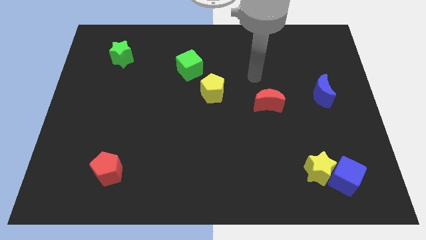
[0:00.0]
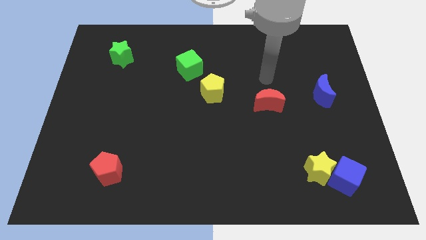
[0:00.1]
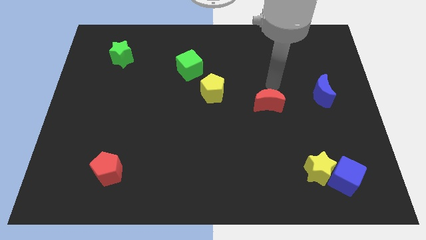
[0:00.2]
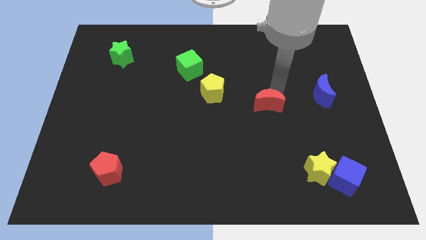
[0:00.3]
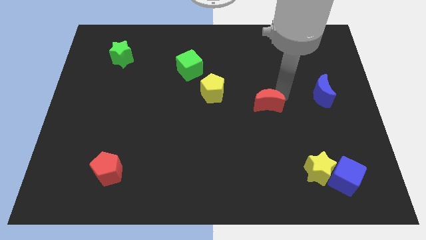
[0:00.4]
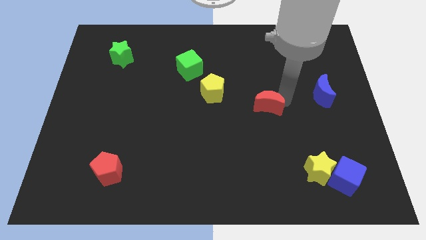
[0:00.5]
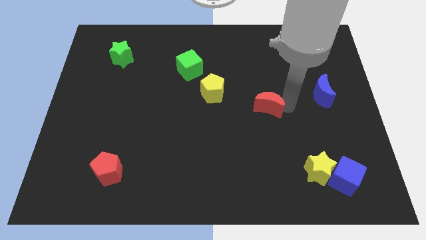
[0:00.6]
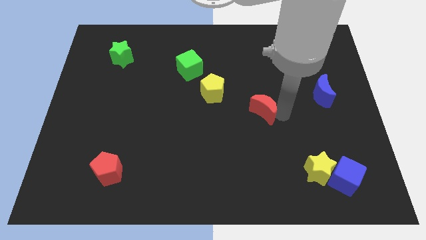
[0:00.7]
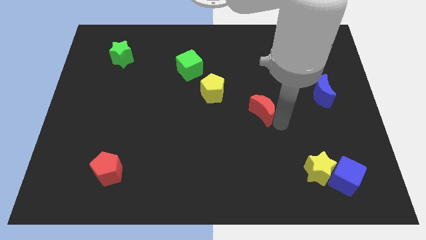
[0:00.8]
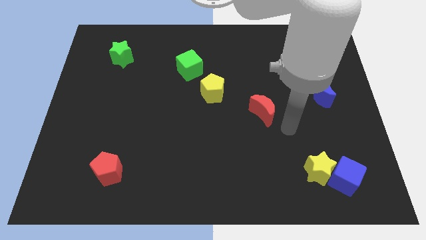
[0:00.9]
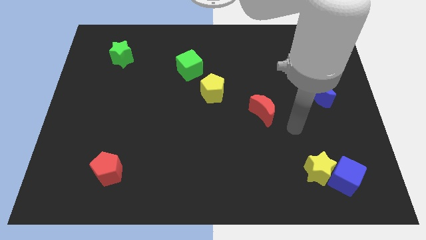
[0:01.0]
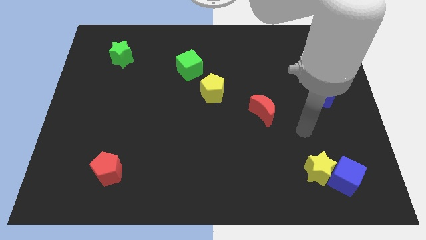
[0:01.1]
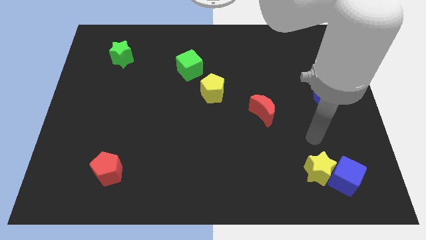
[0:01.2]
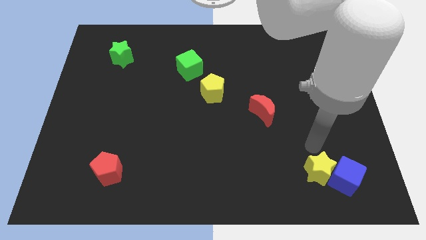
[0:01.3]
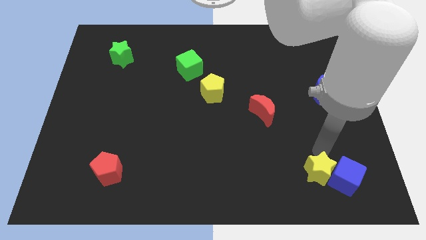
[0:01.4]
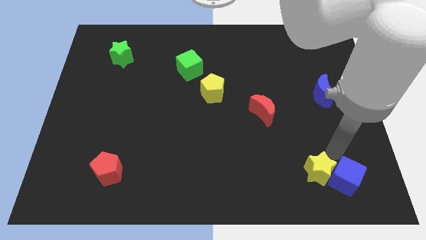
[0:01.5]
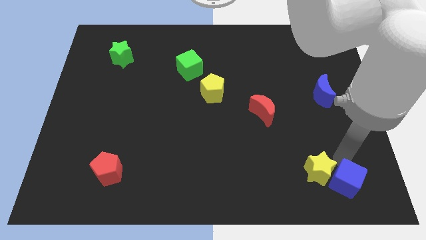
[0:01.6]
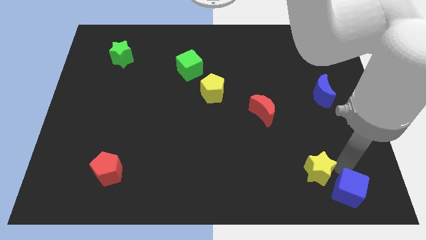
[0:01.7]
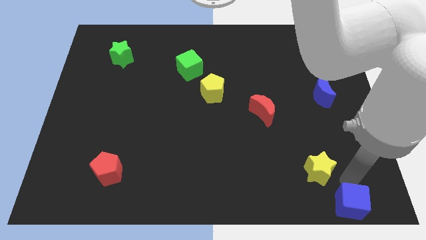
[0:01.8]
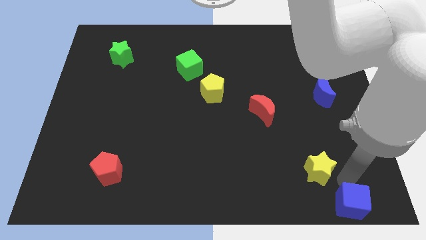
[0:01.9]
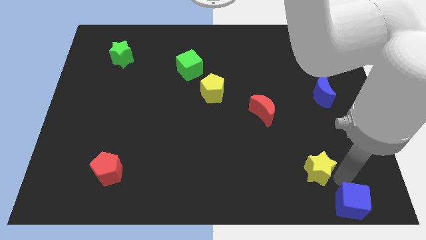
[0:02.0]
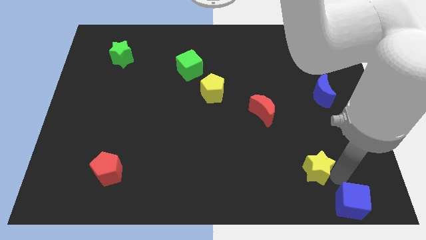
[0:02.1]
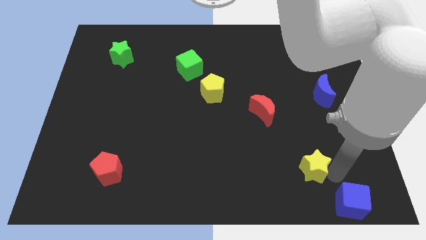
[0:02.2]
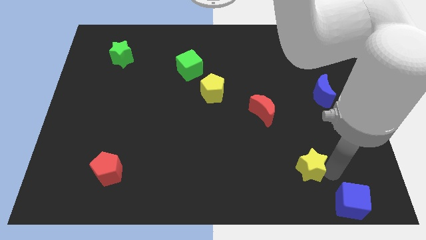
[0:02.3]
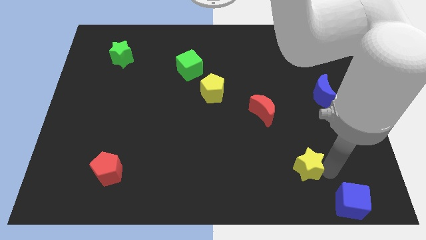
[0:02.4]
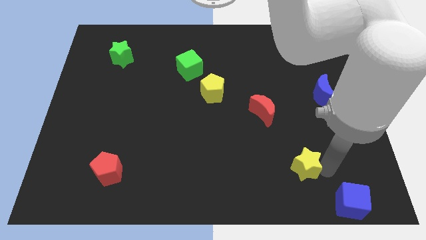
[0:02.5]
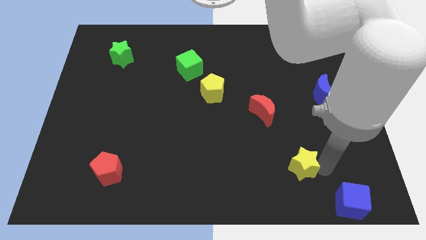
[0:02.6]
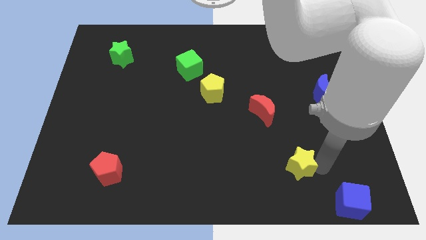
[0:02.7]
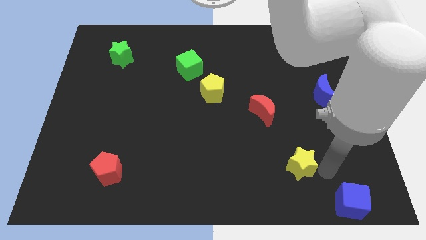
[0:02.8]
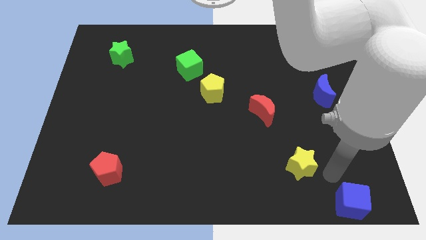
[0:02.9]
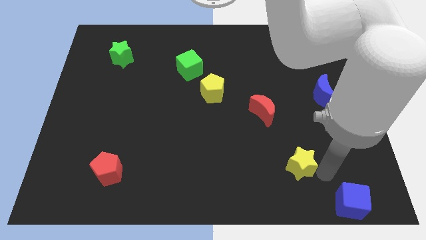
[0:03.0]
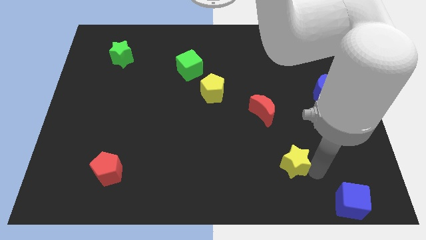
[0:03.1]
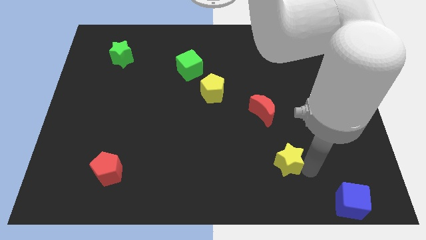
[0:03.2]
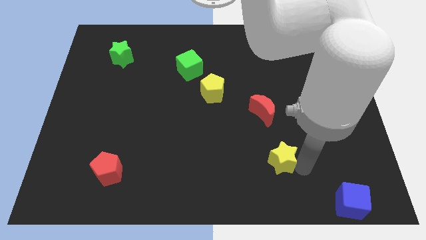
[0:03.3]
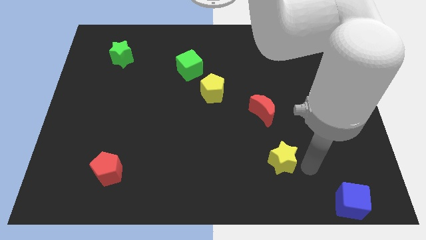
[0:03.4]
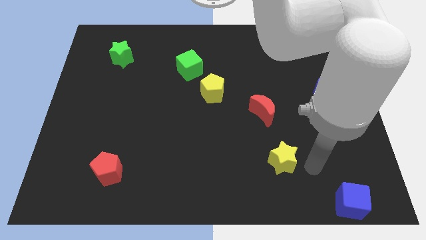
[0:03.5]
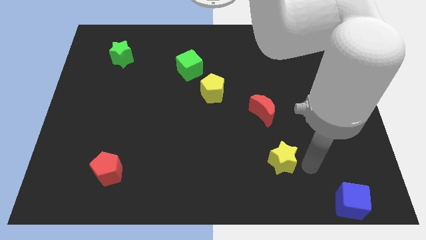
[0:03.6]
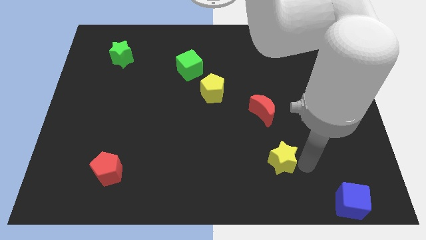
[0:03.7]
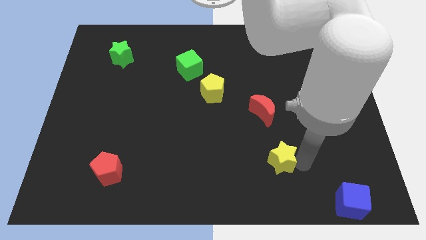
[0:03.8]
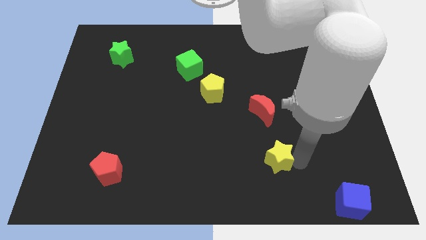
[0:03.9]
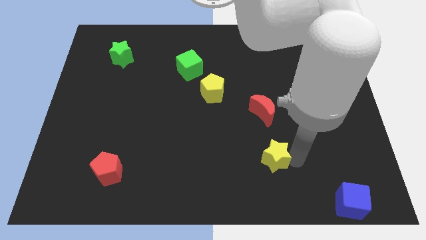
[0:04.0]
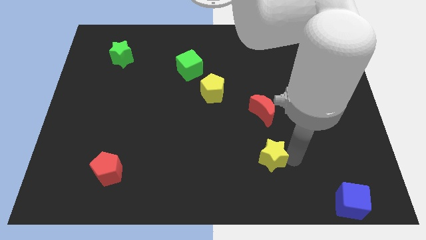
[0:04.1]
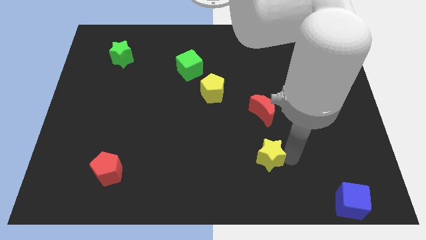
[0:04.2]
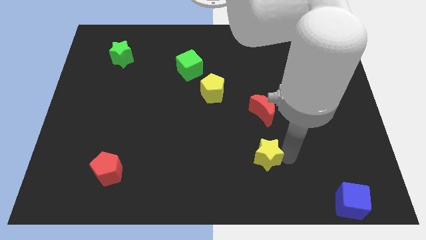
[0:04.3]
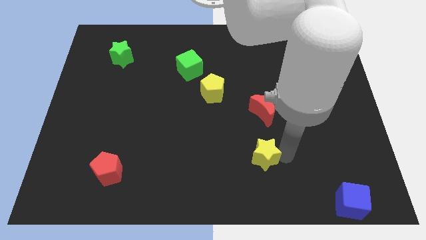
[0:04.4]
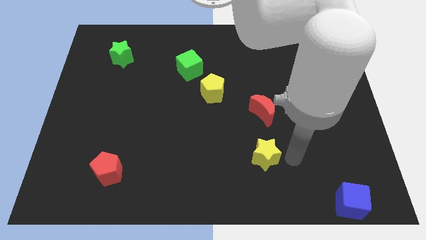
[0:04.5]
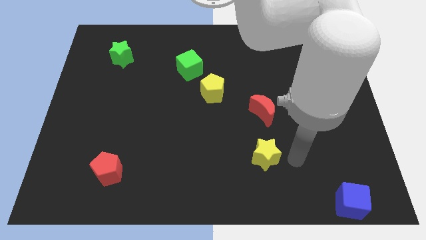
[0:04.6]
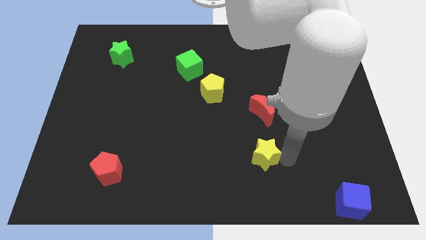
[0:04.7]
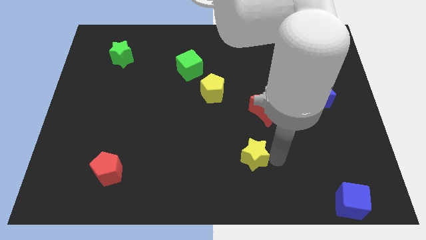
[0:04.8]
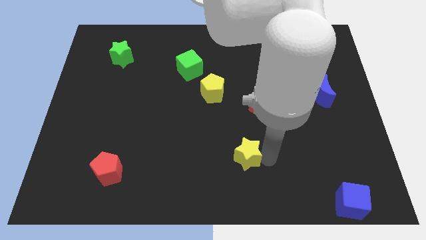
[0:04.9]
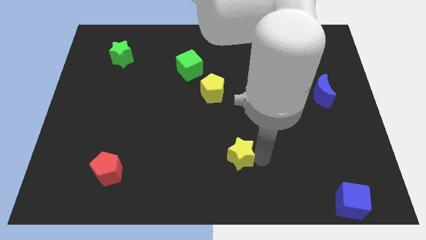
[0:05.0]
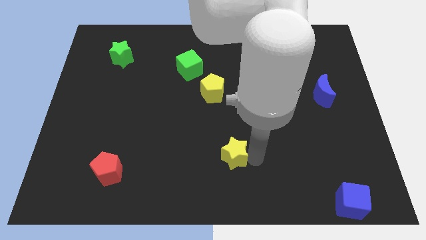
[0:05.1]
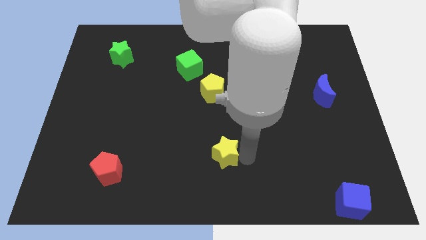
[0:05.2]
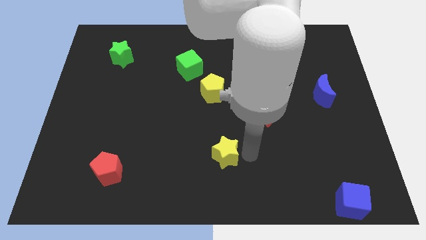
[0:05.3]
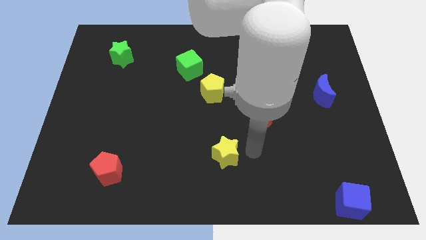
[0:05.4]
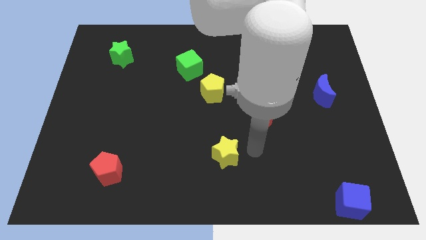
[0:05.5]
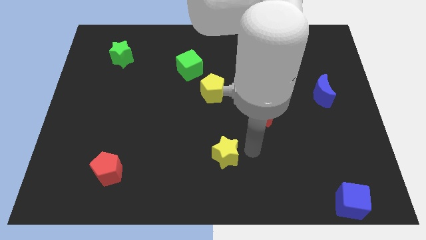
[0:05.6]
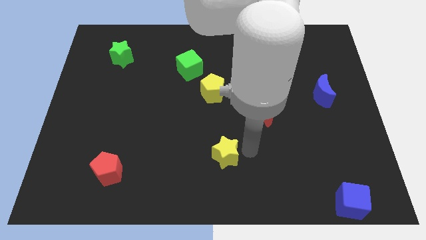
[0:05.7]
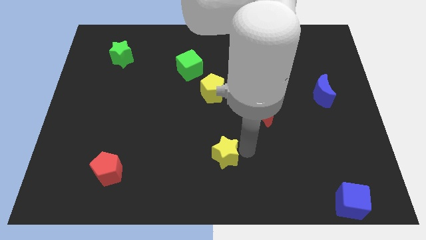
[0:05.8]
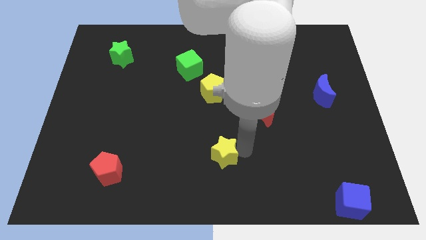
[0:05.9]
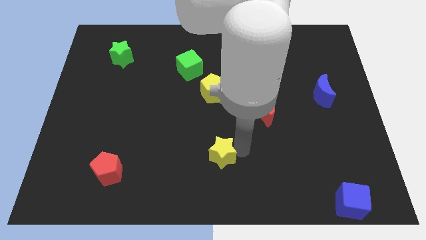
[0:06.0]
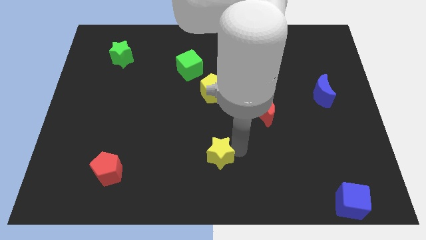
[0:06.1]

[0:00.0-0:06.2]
slide the yellow star left

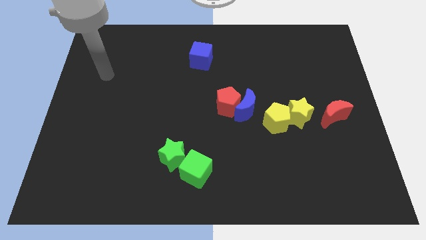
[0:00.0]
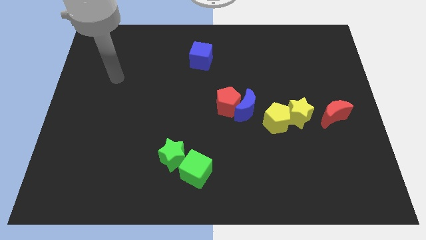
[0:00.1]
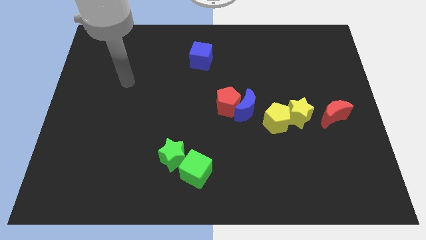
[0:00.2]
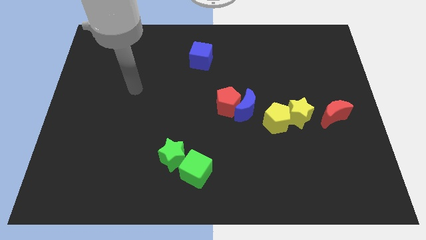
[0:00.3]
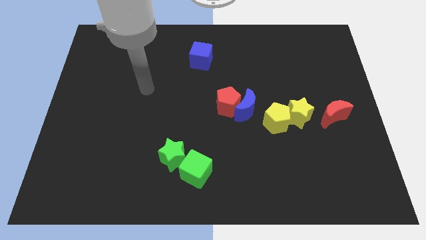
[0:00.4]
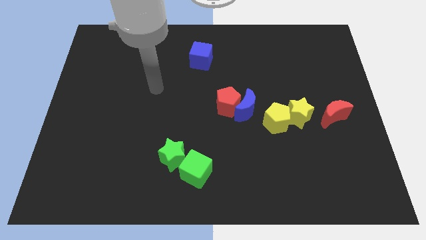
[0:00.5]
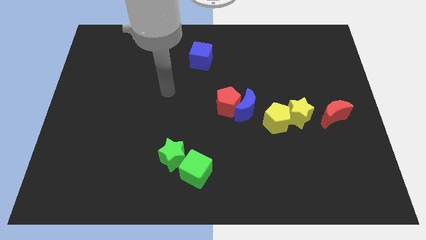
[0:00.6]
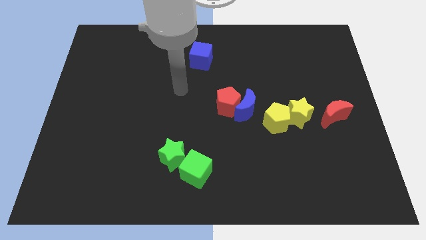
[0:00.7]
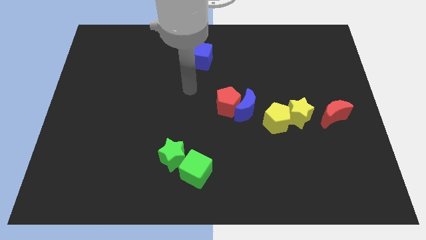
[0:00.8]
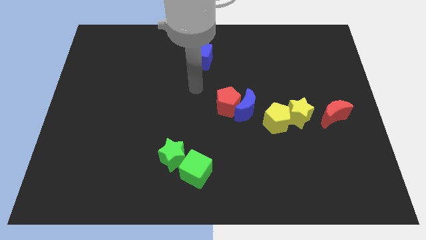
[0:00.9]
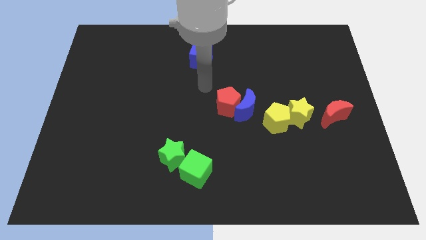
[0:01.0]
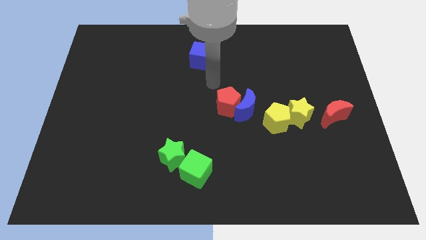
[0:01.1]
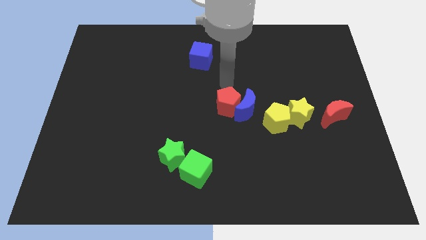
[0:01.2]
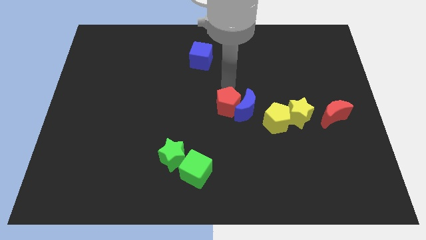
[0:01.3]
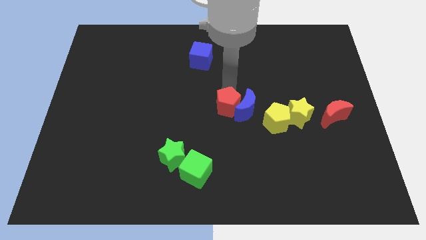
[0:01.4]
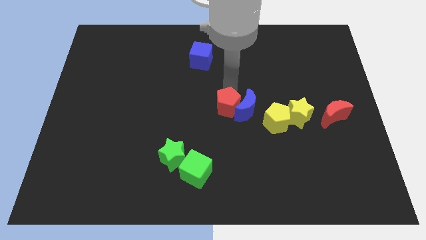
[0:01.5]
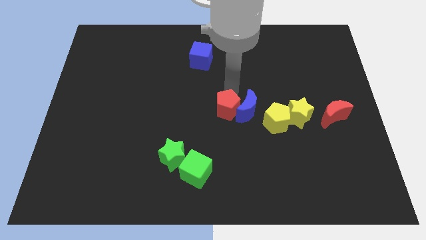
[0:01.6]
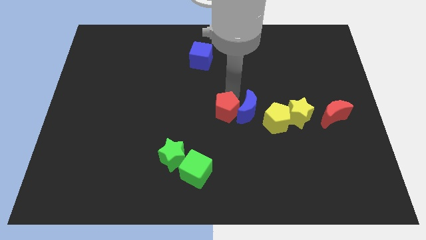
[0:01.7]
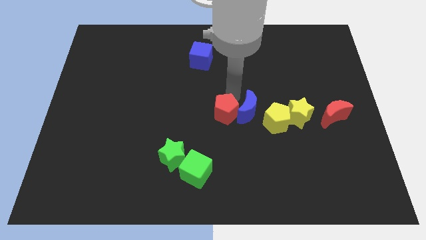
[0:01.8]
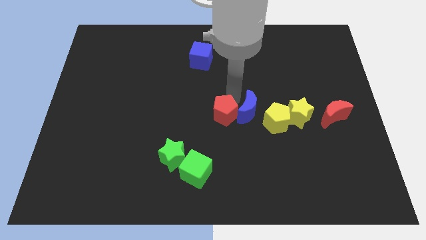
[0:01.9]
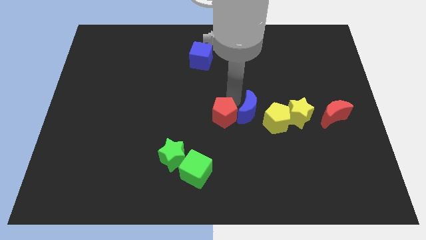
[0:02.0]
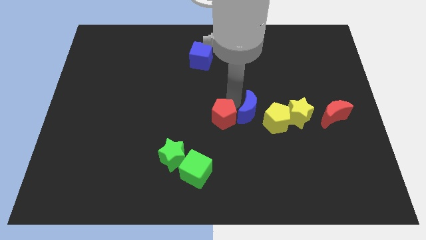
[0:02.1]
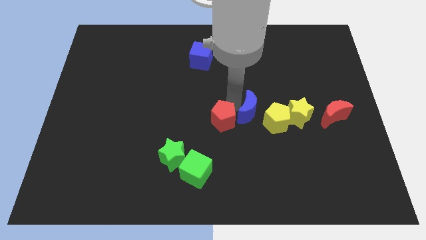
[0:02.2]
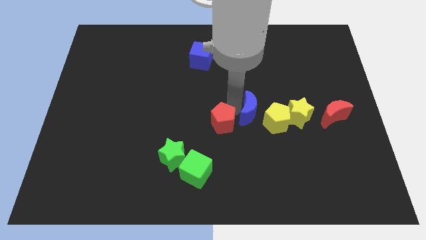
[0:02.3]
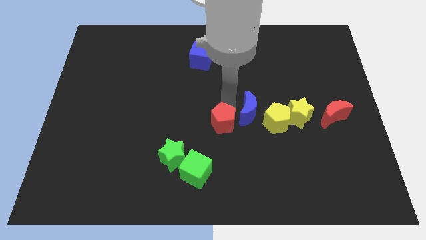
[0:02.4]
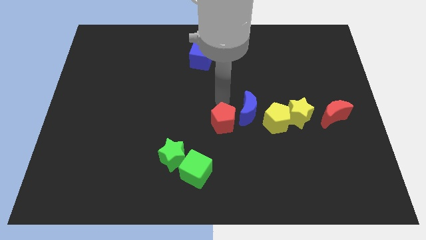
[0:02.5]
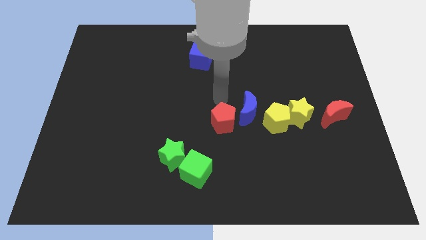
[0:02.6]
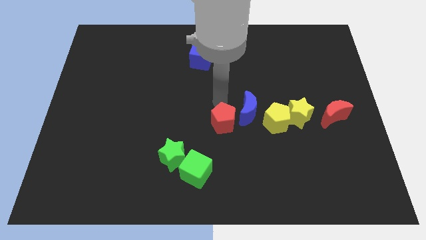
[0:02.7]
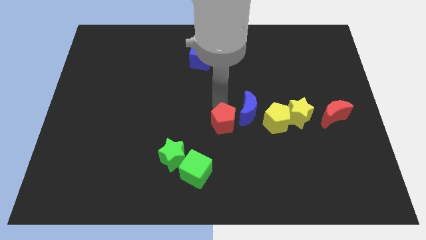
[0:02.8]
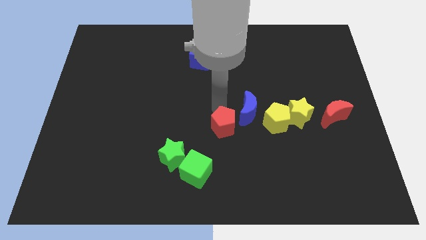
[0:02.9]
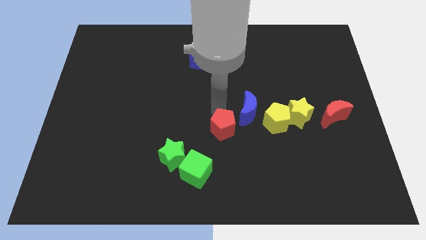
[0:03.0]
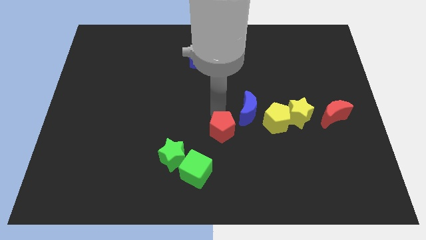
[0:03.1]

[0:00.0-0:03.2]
push the red pentagon slightly down
